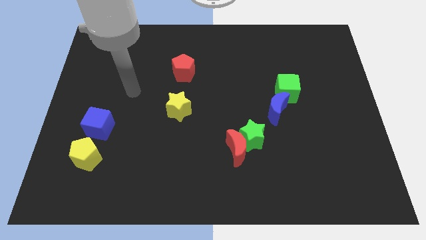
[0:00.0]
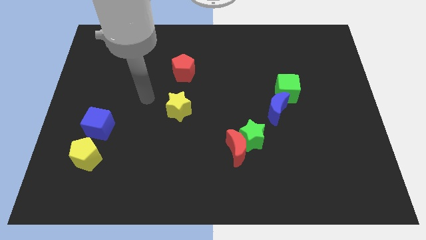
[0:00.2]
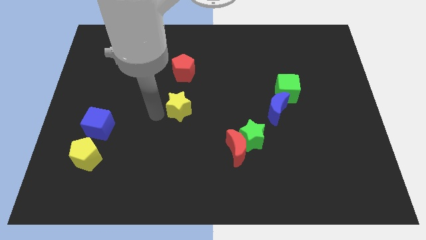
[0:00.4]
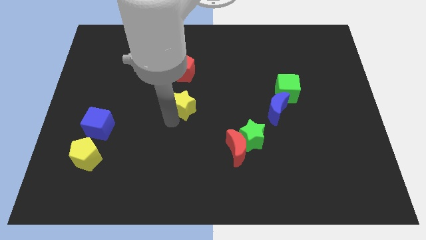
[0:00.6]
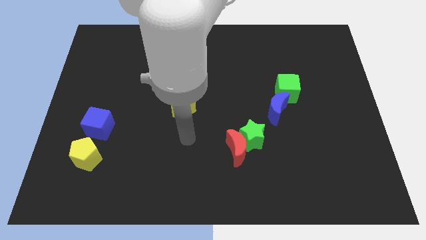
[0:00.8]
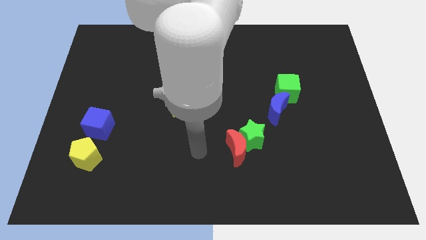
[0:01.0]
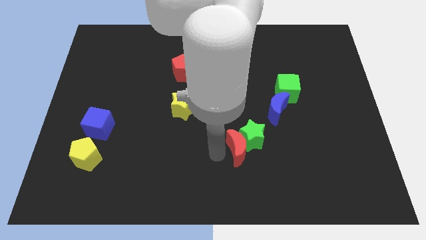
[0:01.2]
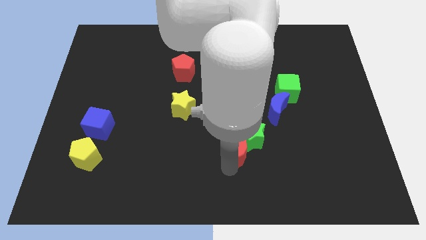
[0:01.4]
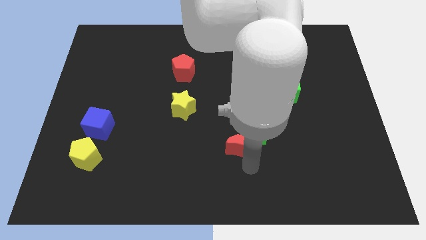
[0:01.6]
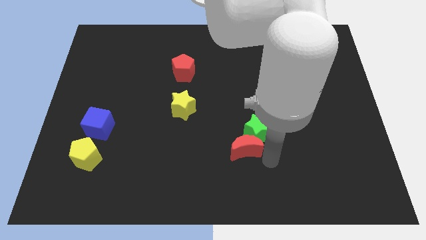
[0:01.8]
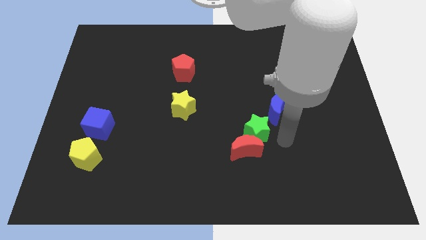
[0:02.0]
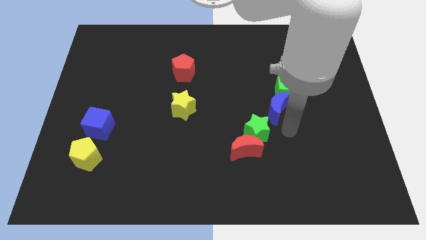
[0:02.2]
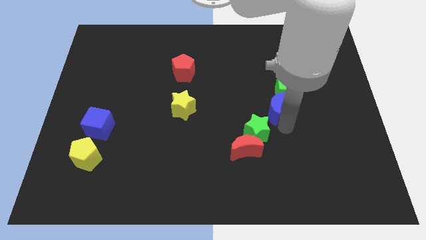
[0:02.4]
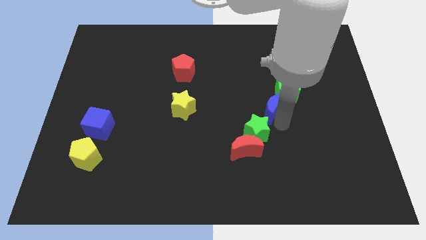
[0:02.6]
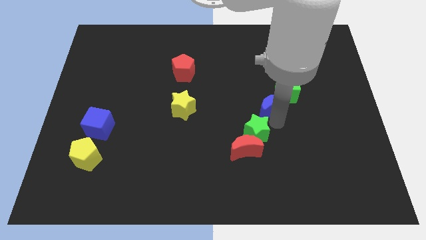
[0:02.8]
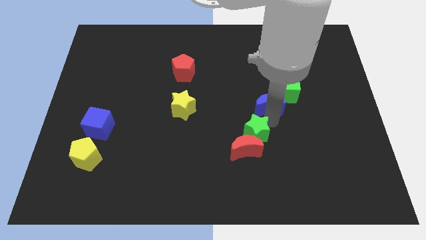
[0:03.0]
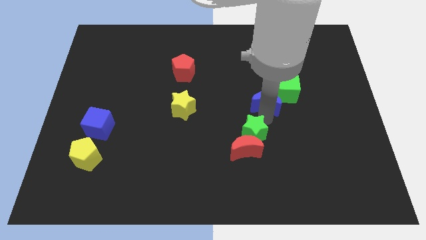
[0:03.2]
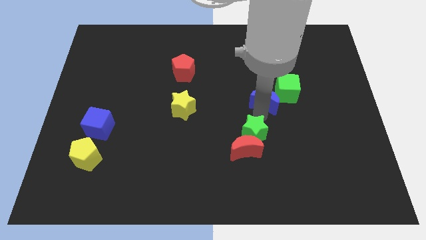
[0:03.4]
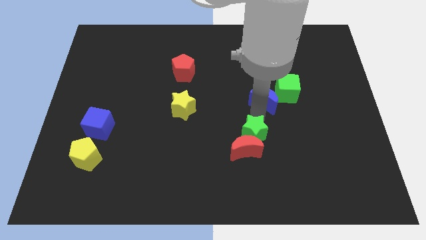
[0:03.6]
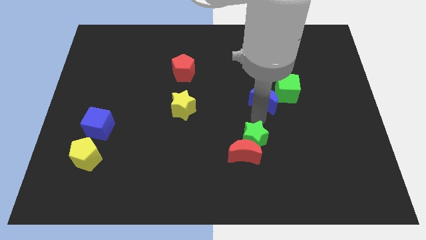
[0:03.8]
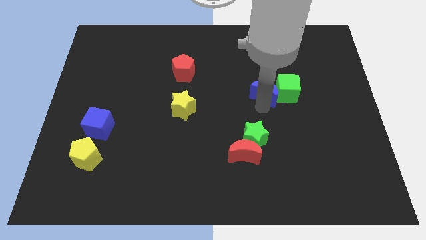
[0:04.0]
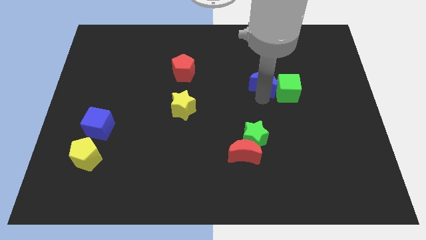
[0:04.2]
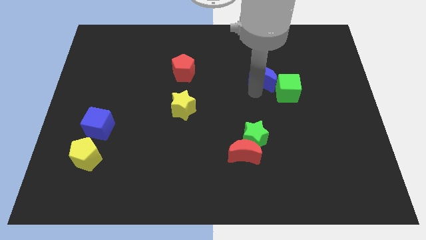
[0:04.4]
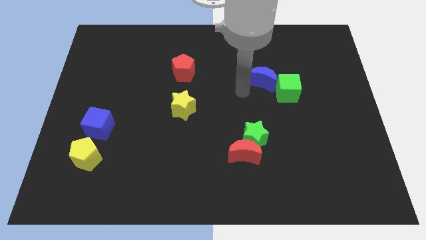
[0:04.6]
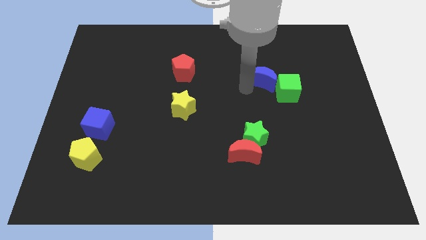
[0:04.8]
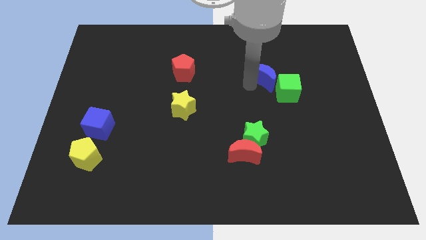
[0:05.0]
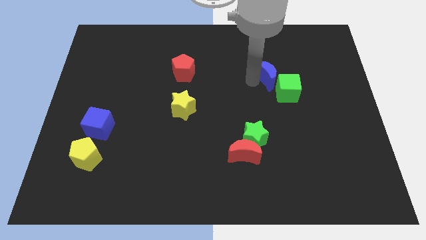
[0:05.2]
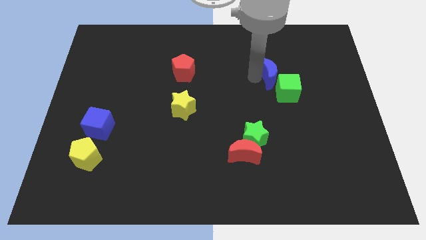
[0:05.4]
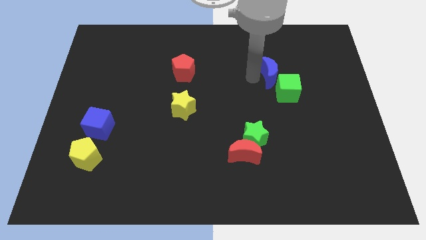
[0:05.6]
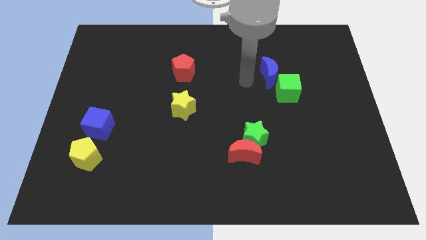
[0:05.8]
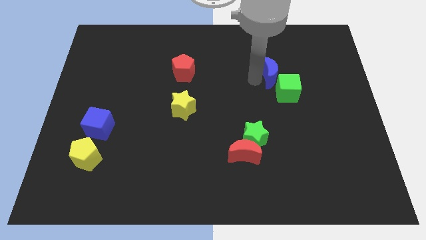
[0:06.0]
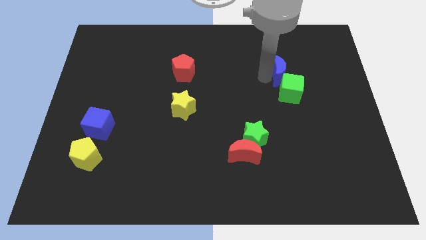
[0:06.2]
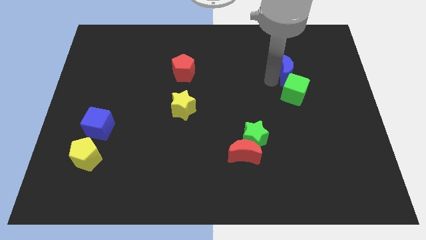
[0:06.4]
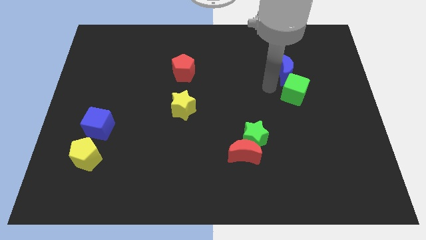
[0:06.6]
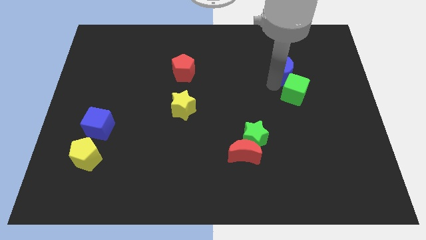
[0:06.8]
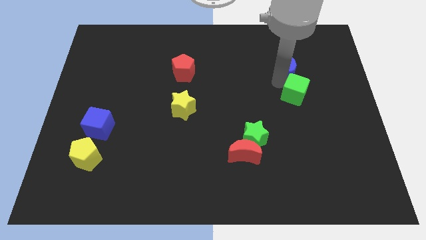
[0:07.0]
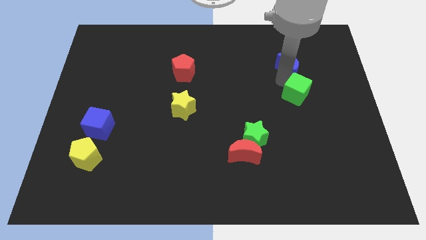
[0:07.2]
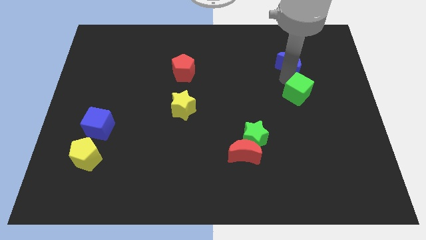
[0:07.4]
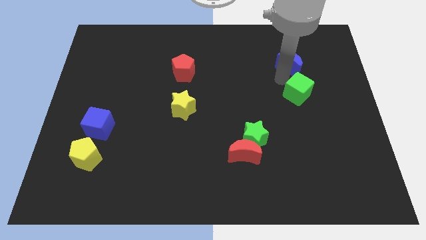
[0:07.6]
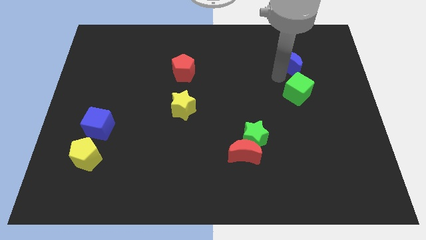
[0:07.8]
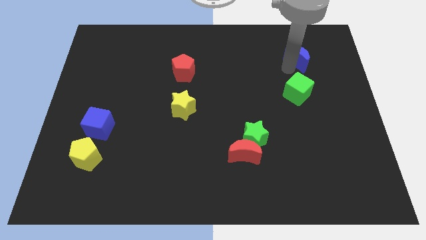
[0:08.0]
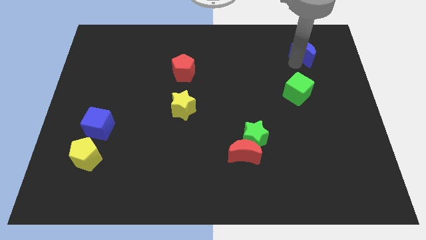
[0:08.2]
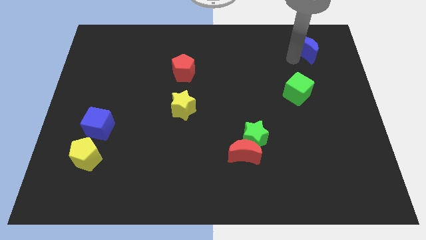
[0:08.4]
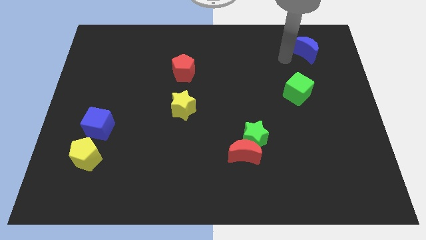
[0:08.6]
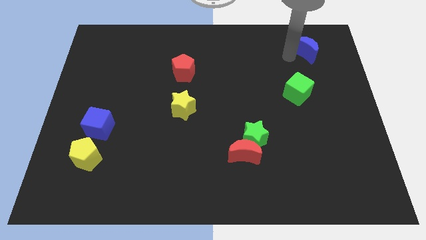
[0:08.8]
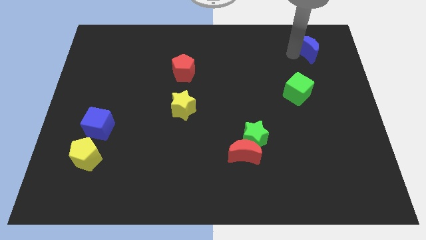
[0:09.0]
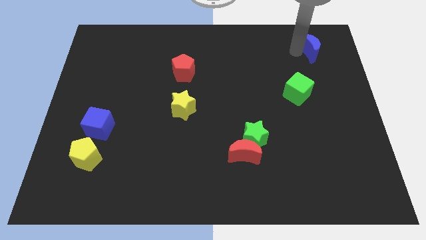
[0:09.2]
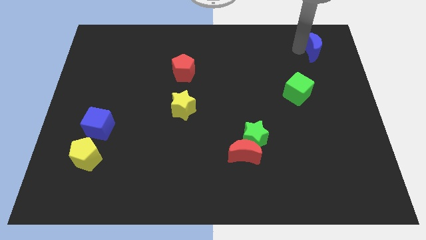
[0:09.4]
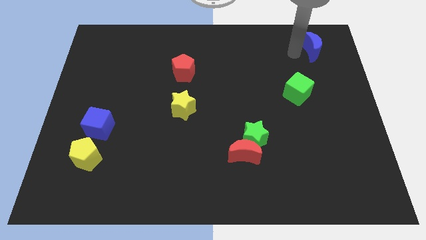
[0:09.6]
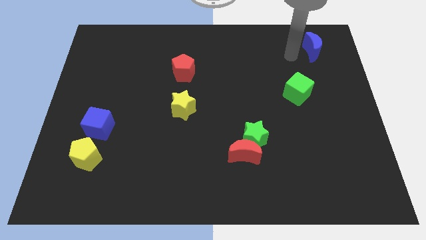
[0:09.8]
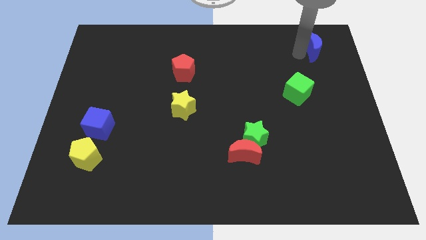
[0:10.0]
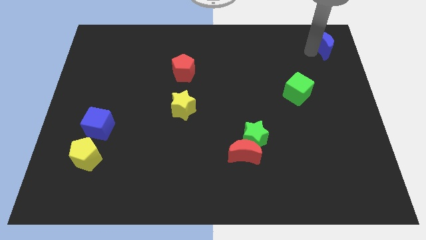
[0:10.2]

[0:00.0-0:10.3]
push the blue moon to the upper right corner

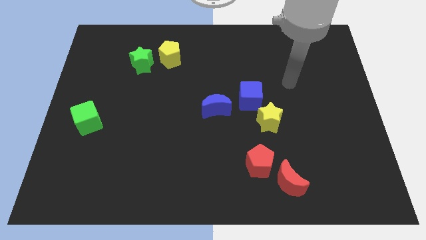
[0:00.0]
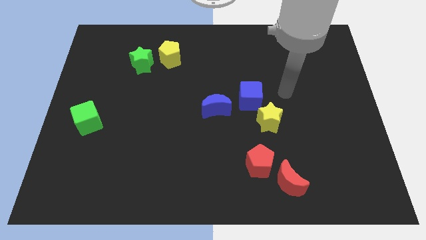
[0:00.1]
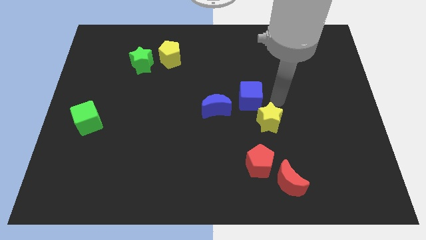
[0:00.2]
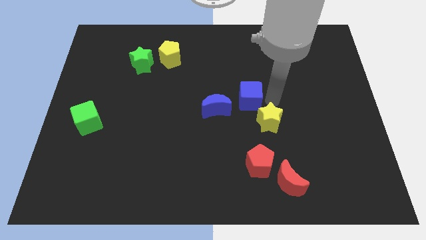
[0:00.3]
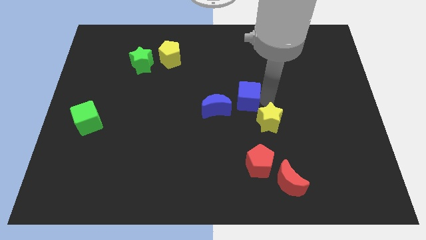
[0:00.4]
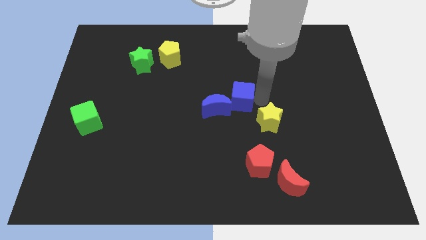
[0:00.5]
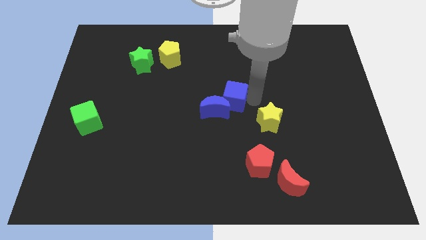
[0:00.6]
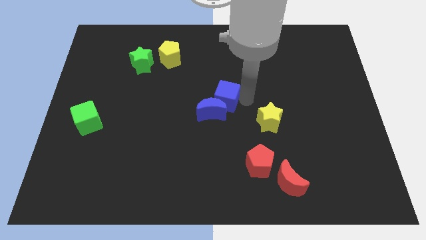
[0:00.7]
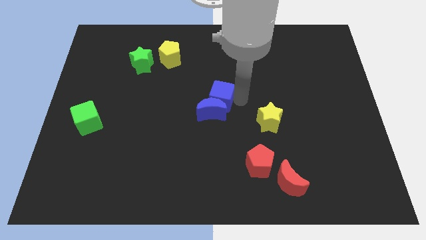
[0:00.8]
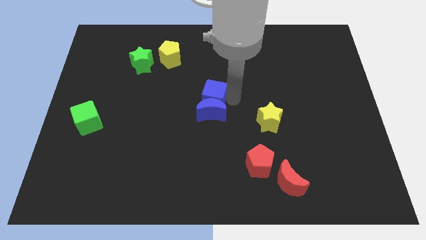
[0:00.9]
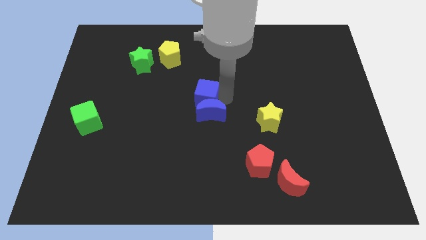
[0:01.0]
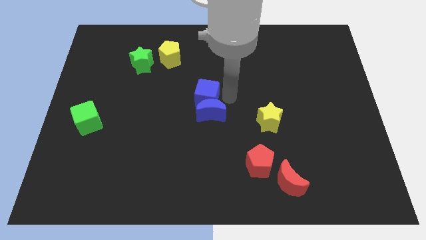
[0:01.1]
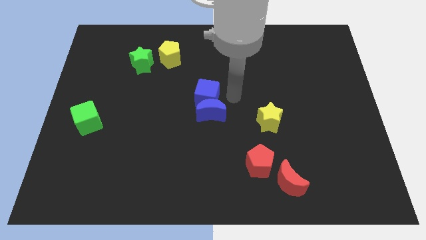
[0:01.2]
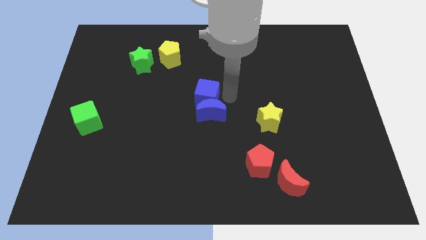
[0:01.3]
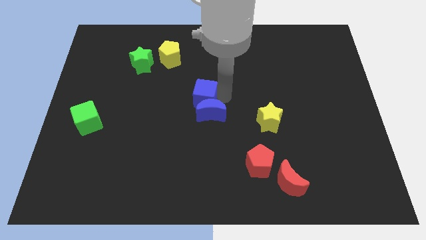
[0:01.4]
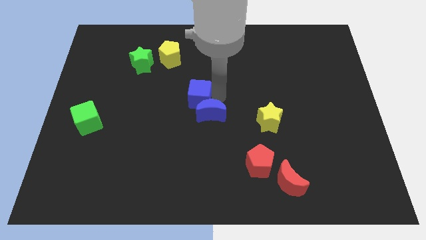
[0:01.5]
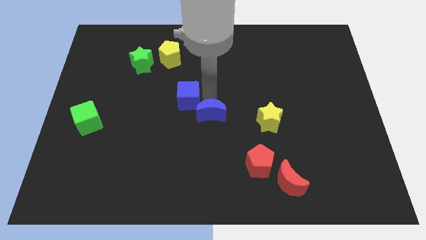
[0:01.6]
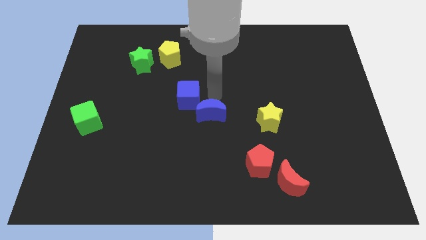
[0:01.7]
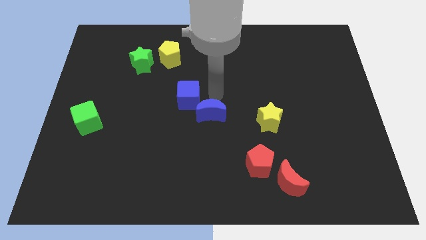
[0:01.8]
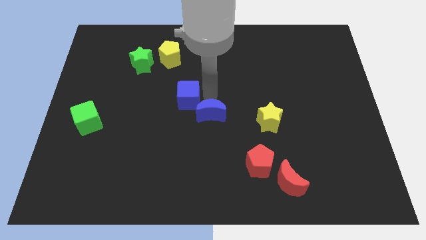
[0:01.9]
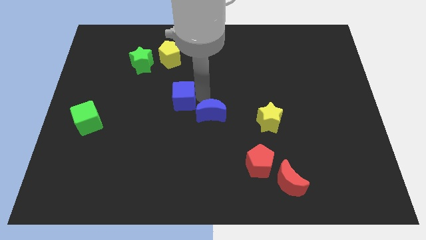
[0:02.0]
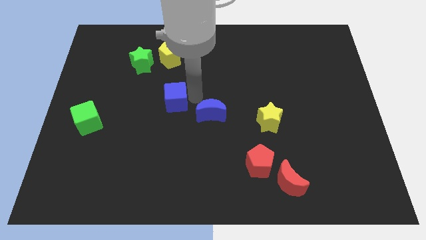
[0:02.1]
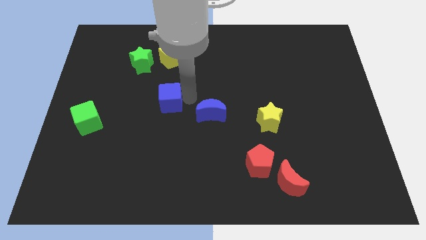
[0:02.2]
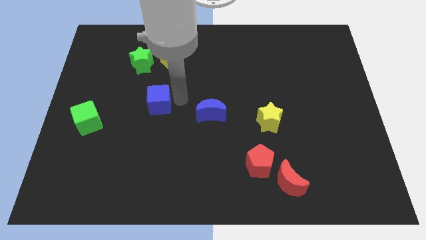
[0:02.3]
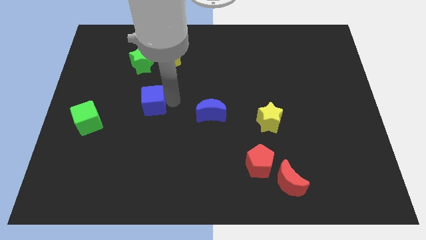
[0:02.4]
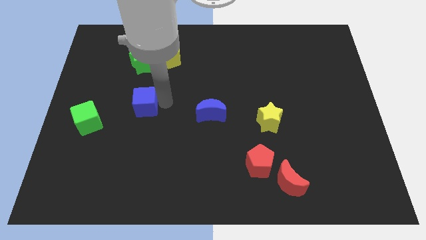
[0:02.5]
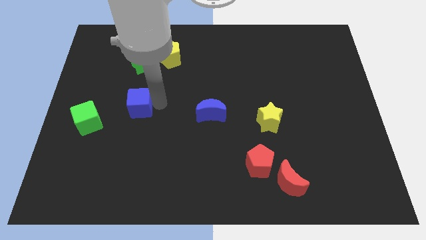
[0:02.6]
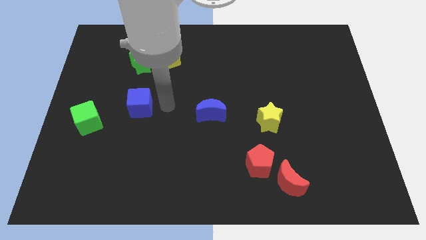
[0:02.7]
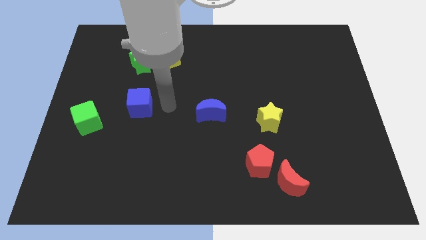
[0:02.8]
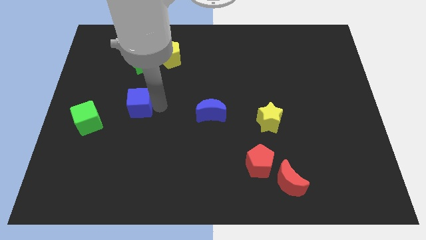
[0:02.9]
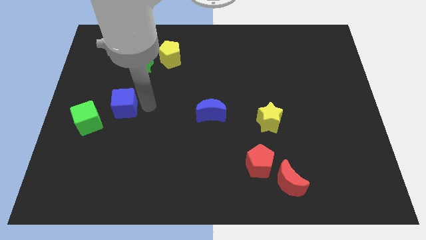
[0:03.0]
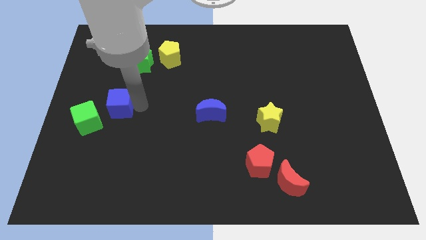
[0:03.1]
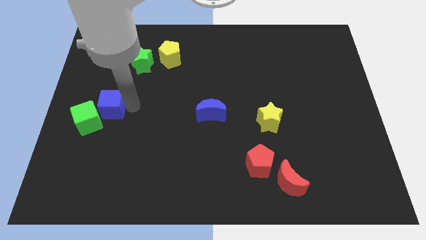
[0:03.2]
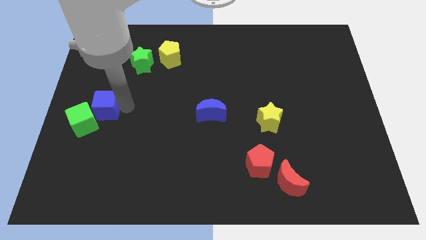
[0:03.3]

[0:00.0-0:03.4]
move the blue cube to the left side
